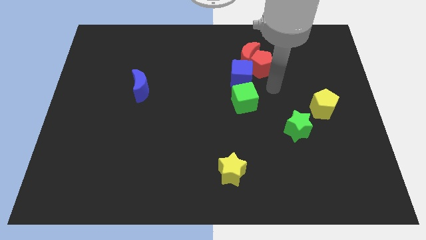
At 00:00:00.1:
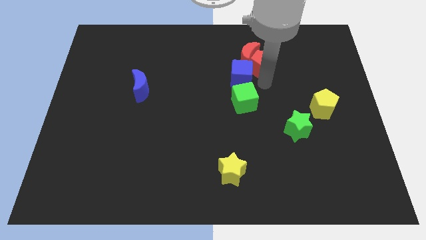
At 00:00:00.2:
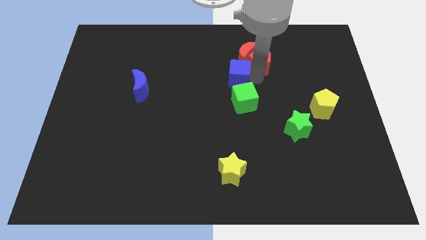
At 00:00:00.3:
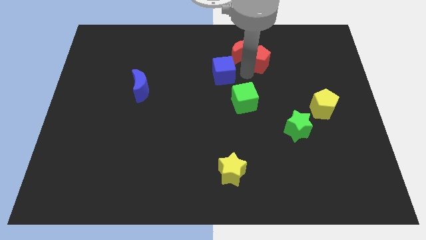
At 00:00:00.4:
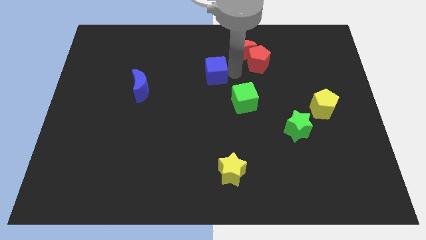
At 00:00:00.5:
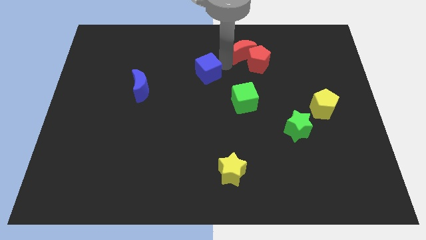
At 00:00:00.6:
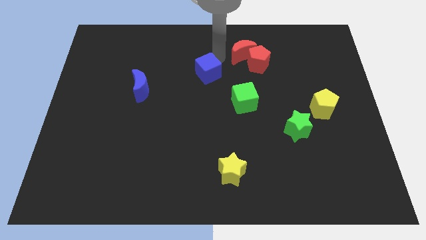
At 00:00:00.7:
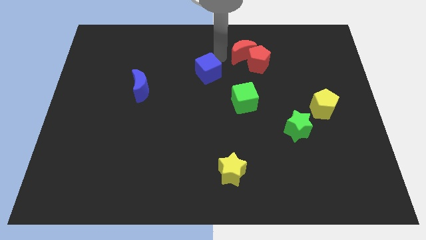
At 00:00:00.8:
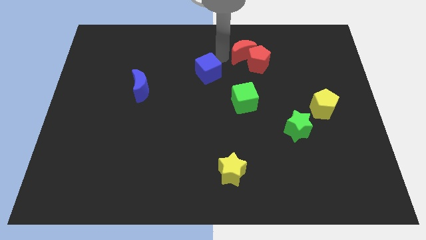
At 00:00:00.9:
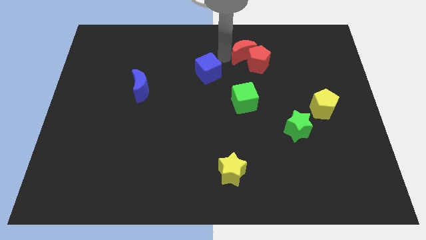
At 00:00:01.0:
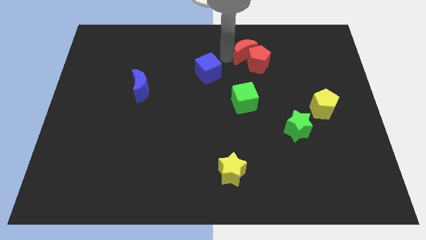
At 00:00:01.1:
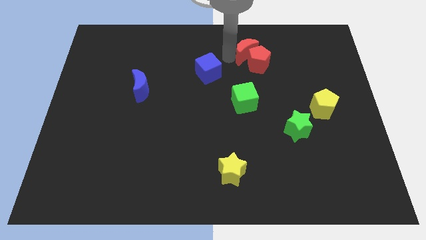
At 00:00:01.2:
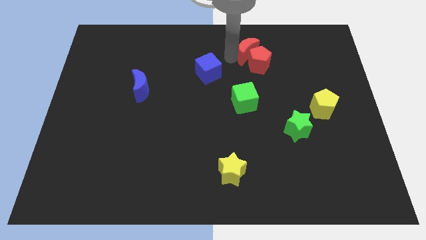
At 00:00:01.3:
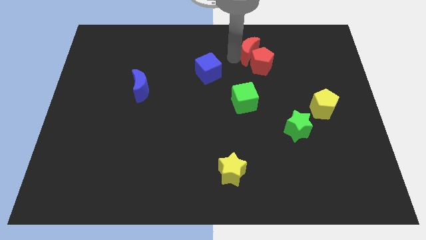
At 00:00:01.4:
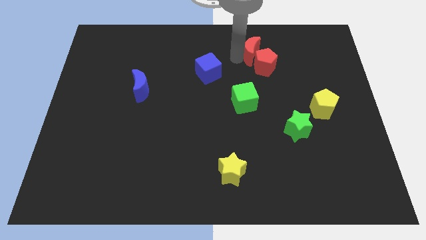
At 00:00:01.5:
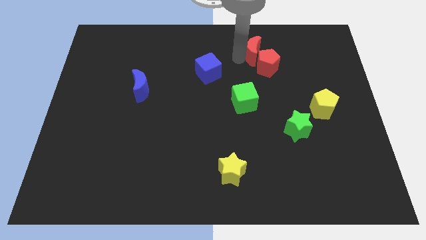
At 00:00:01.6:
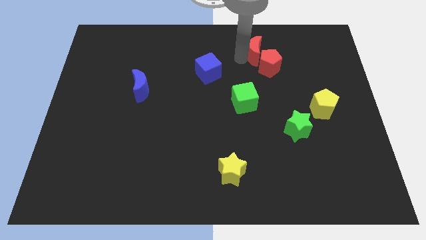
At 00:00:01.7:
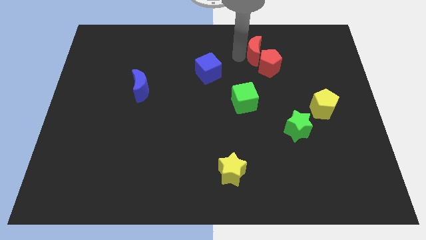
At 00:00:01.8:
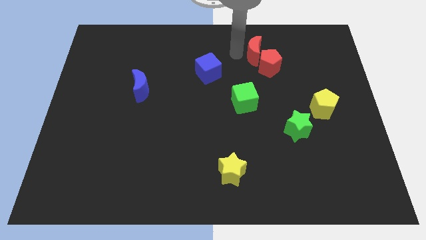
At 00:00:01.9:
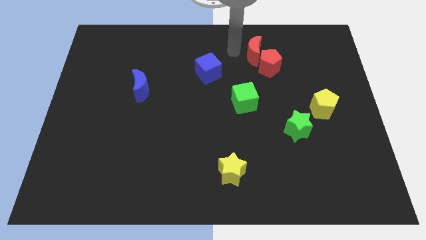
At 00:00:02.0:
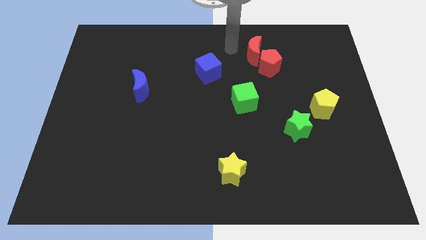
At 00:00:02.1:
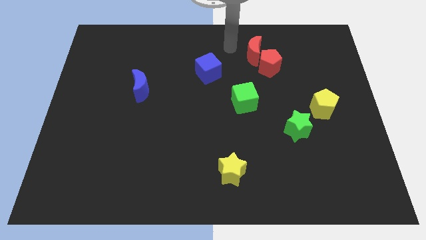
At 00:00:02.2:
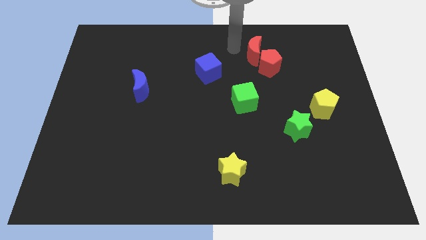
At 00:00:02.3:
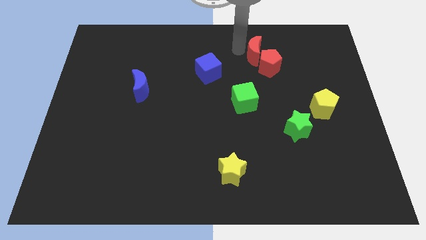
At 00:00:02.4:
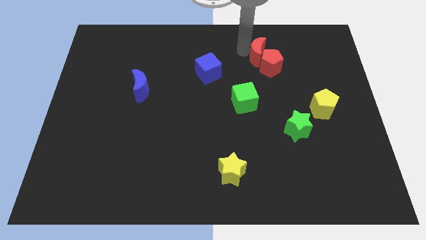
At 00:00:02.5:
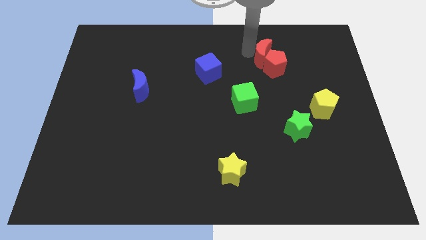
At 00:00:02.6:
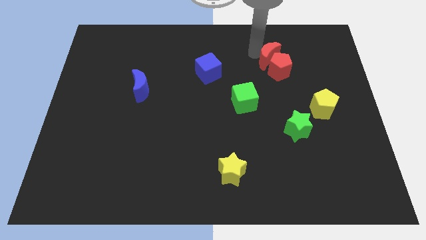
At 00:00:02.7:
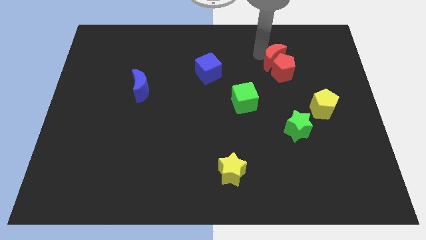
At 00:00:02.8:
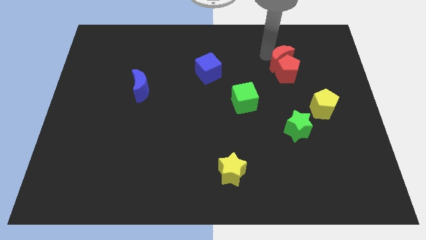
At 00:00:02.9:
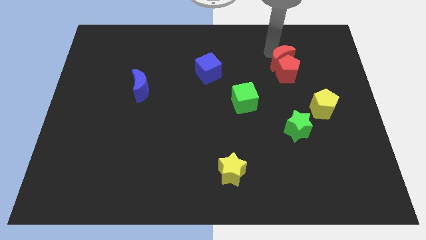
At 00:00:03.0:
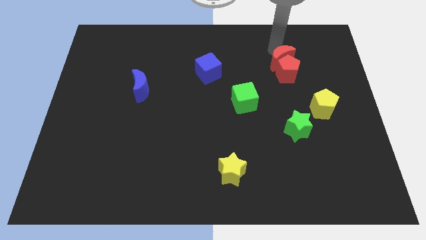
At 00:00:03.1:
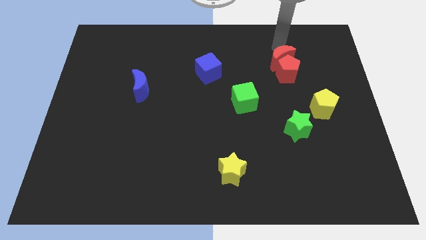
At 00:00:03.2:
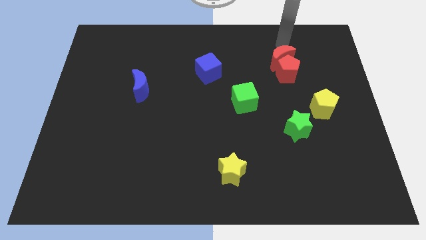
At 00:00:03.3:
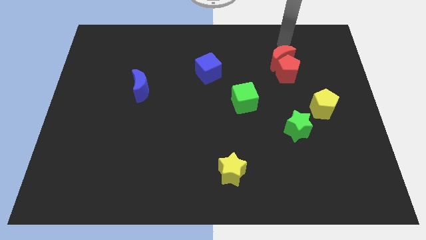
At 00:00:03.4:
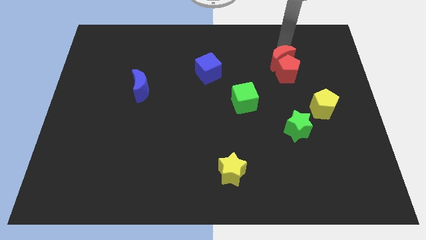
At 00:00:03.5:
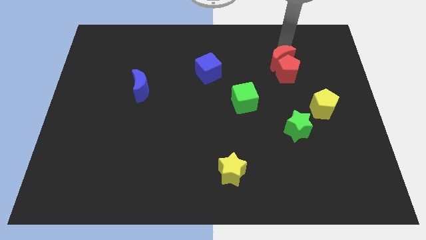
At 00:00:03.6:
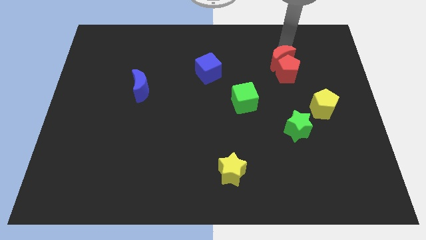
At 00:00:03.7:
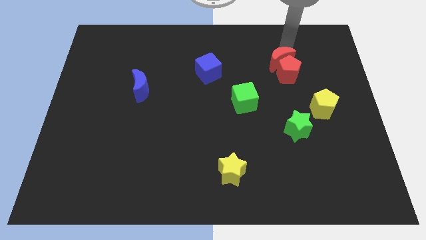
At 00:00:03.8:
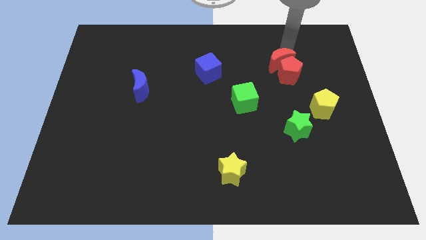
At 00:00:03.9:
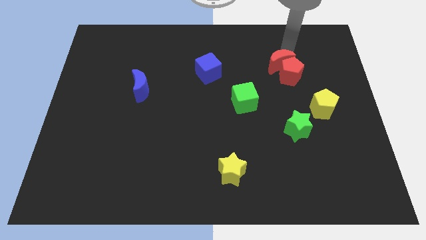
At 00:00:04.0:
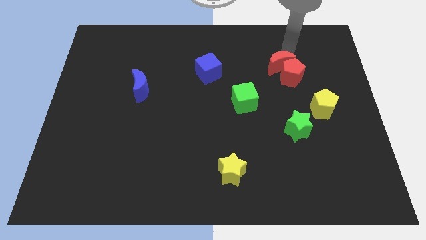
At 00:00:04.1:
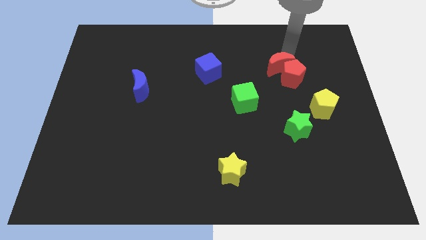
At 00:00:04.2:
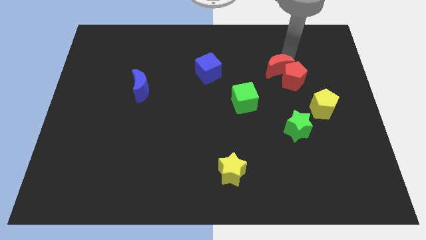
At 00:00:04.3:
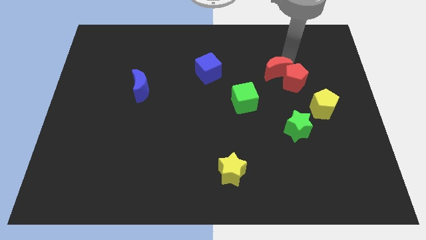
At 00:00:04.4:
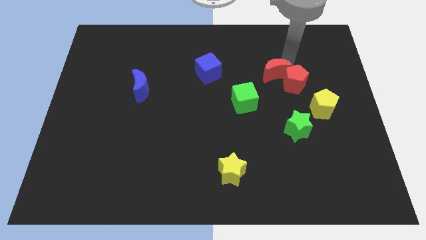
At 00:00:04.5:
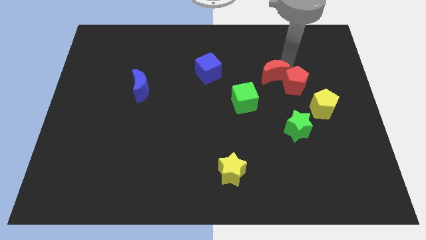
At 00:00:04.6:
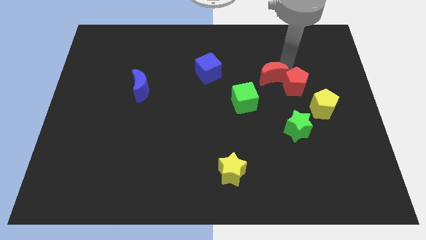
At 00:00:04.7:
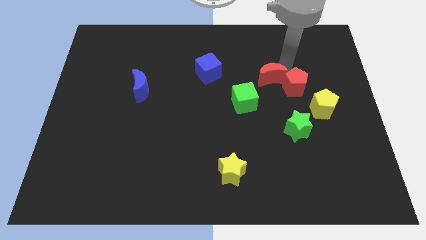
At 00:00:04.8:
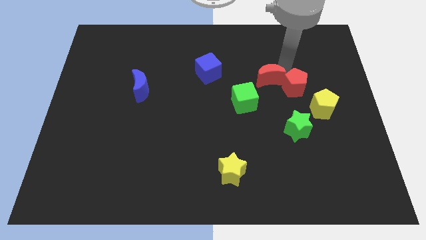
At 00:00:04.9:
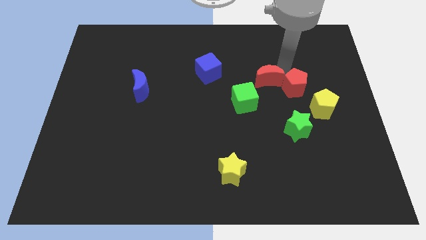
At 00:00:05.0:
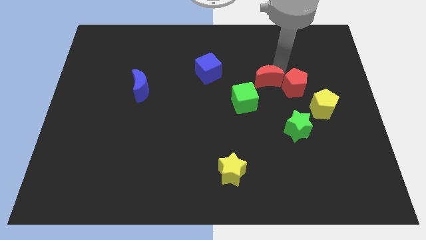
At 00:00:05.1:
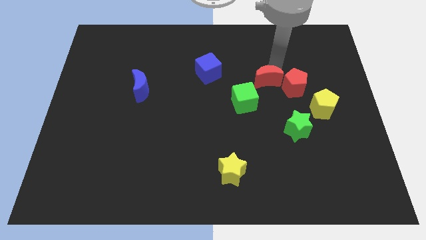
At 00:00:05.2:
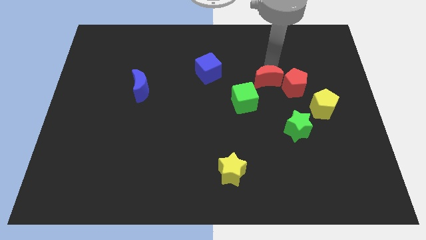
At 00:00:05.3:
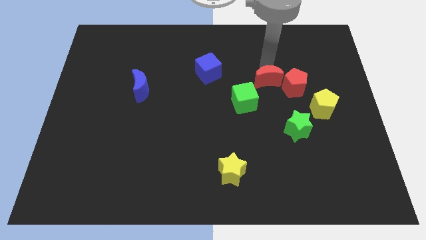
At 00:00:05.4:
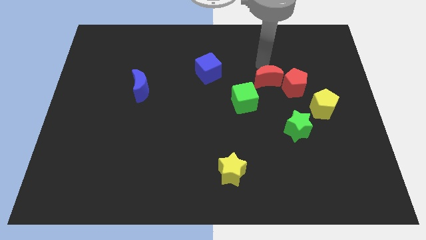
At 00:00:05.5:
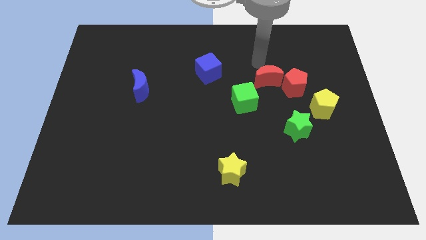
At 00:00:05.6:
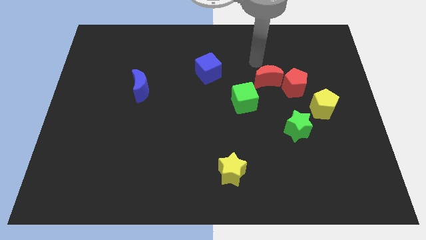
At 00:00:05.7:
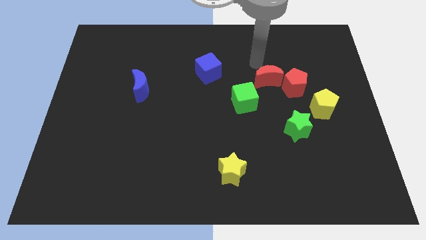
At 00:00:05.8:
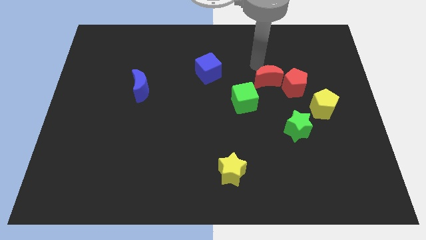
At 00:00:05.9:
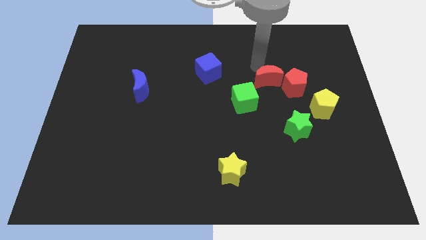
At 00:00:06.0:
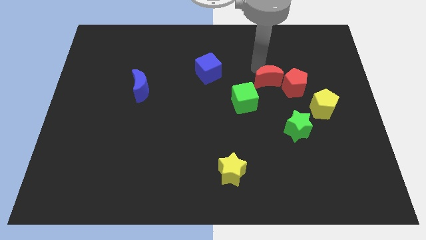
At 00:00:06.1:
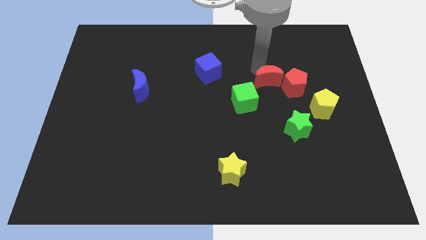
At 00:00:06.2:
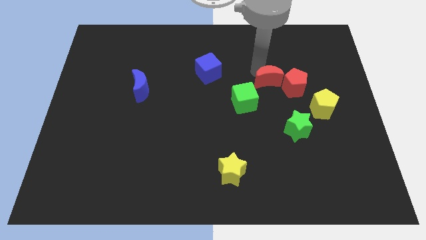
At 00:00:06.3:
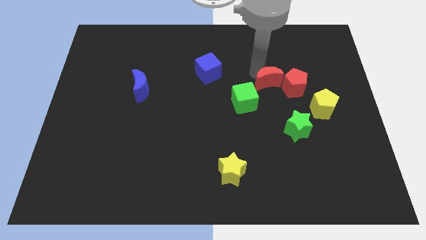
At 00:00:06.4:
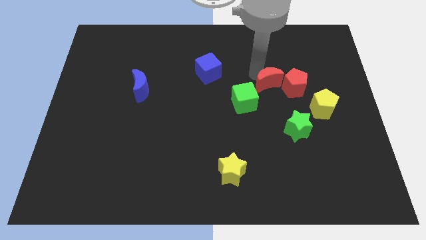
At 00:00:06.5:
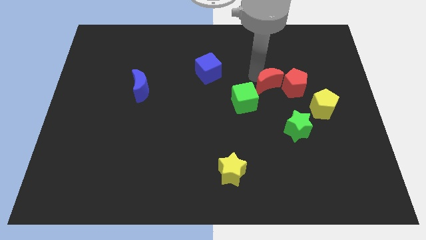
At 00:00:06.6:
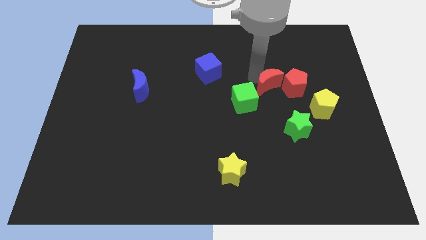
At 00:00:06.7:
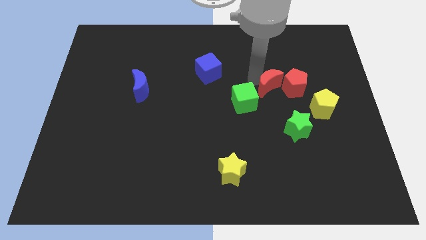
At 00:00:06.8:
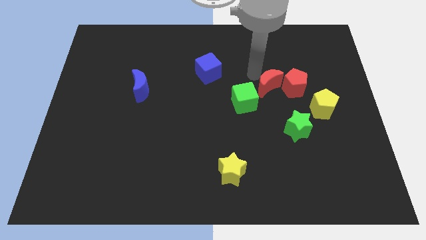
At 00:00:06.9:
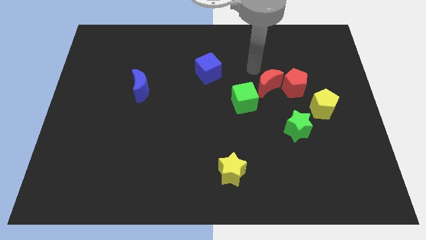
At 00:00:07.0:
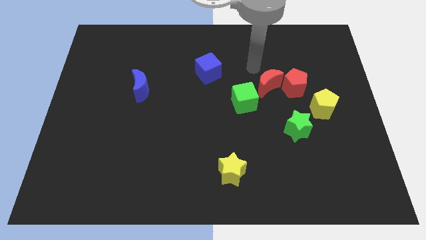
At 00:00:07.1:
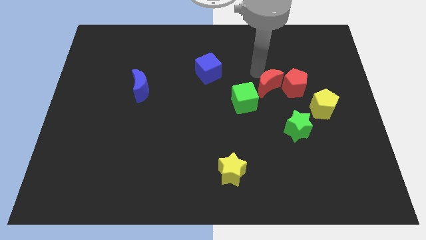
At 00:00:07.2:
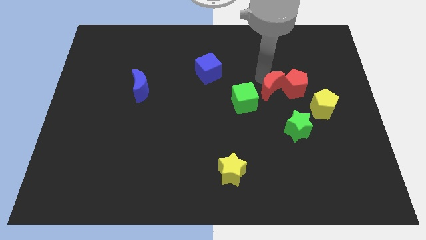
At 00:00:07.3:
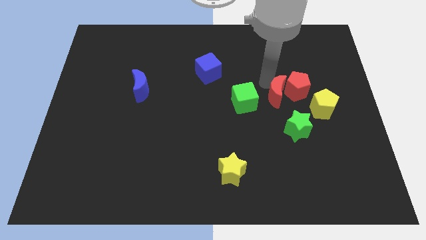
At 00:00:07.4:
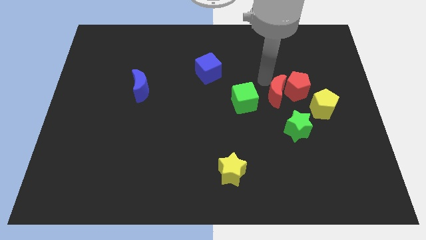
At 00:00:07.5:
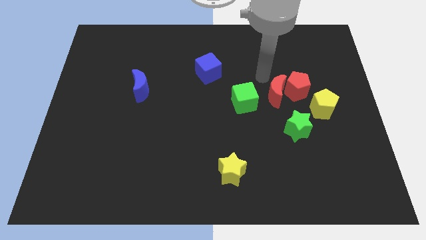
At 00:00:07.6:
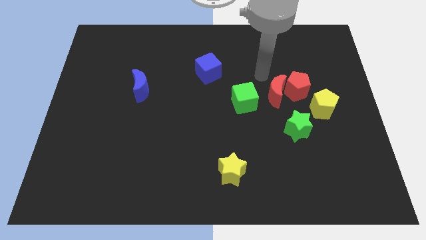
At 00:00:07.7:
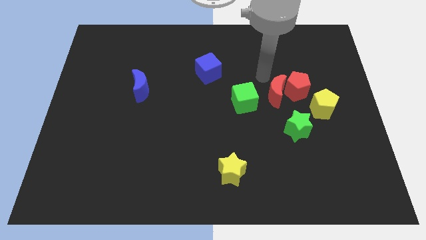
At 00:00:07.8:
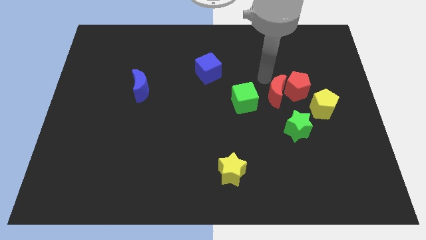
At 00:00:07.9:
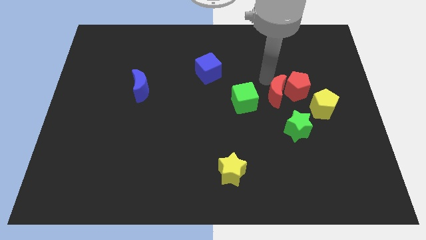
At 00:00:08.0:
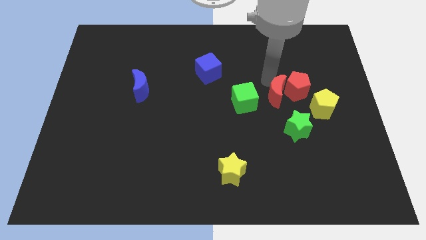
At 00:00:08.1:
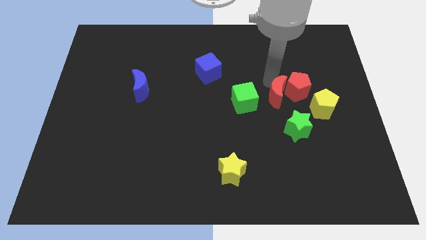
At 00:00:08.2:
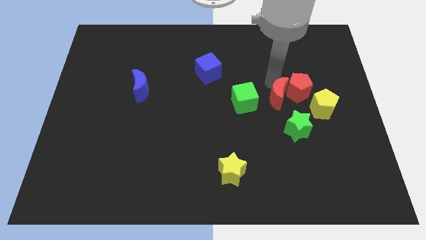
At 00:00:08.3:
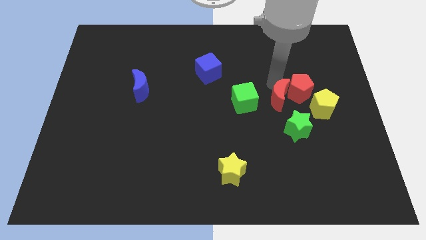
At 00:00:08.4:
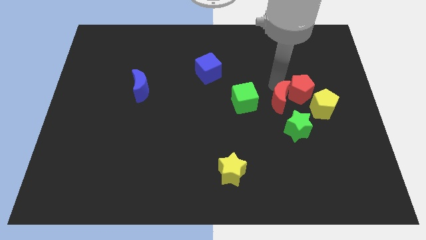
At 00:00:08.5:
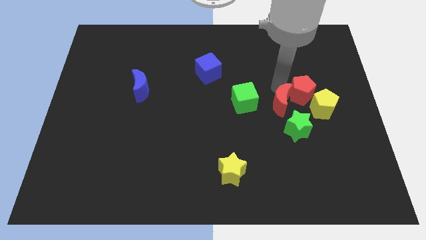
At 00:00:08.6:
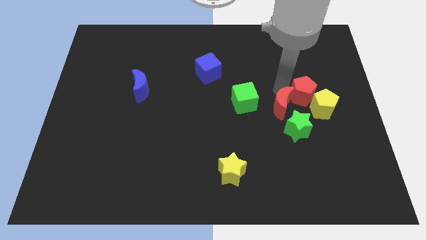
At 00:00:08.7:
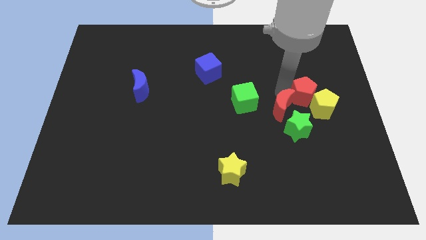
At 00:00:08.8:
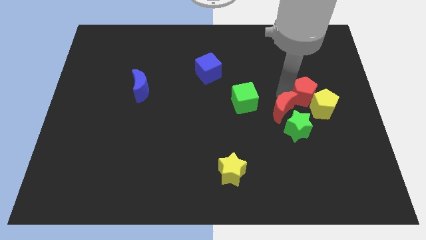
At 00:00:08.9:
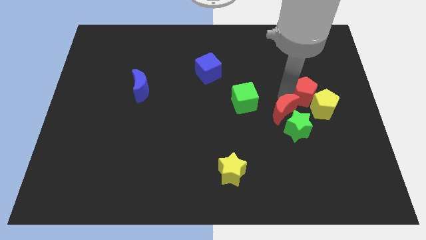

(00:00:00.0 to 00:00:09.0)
move the red moon to the green star
